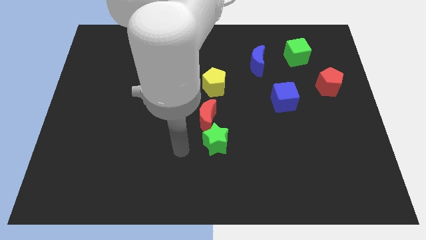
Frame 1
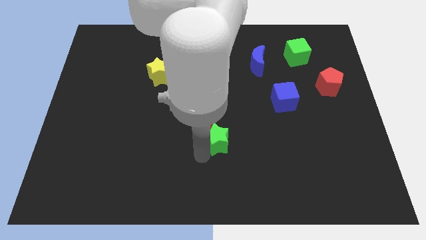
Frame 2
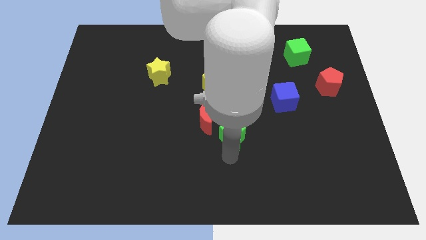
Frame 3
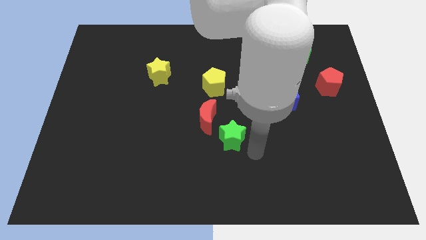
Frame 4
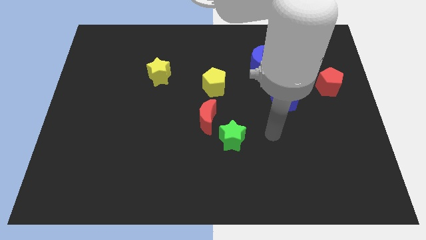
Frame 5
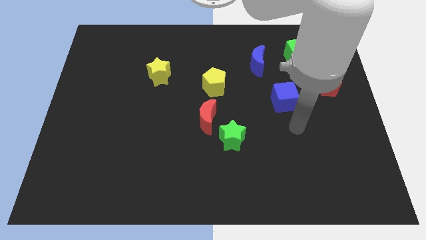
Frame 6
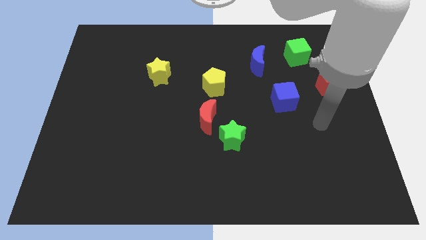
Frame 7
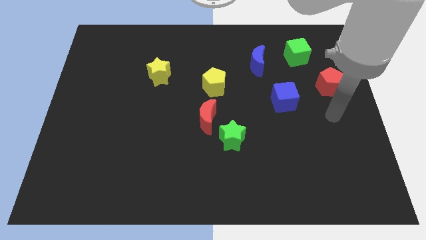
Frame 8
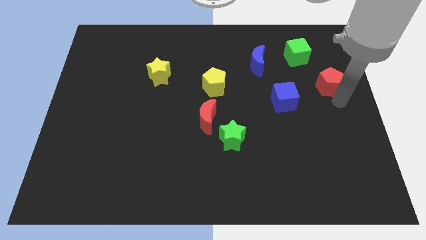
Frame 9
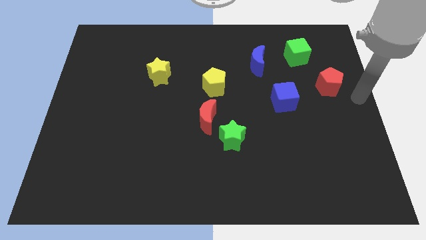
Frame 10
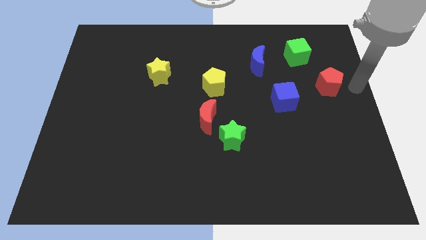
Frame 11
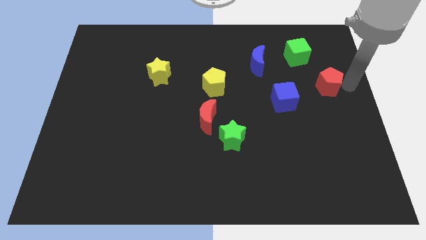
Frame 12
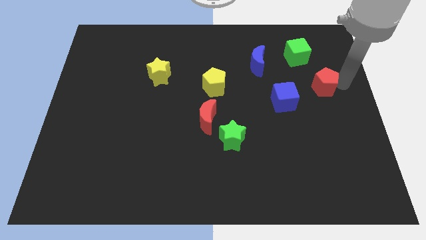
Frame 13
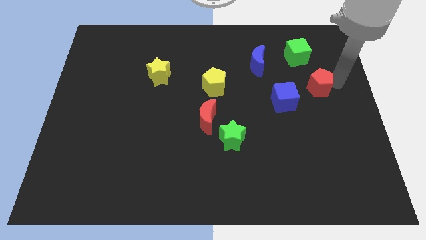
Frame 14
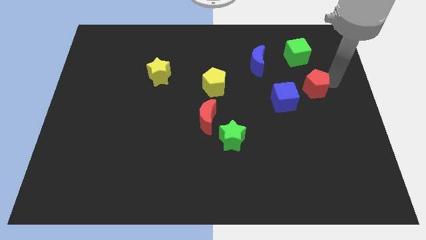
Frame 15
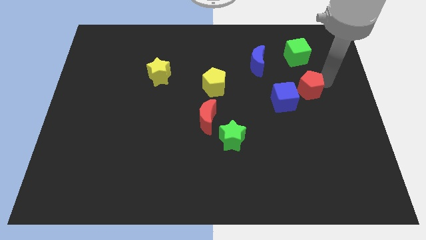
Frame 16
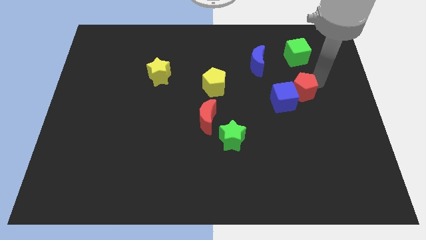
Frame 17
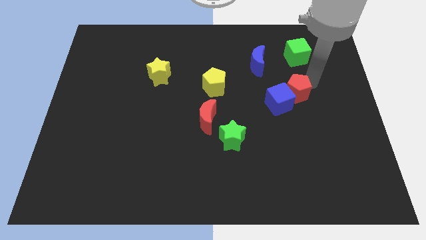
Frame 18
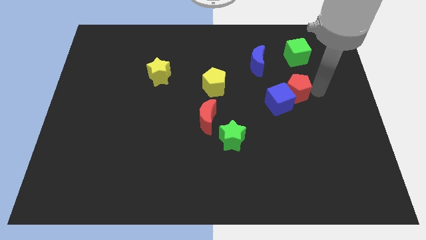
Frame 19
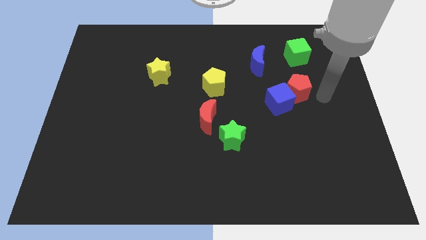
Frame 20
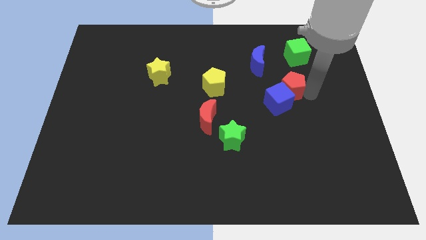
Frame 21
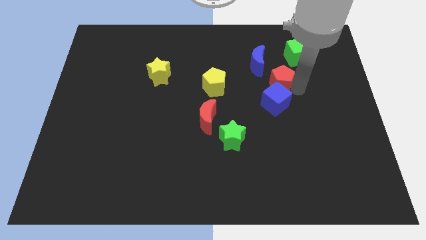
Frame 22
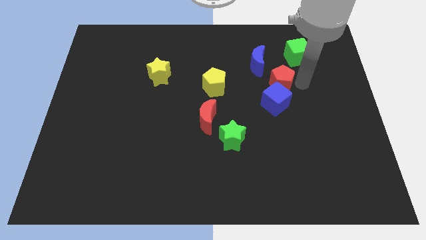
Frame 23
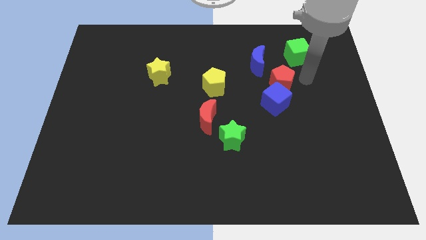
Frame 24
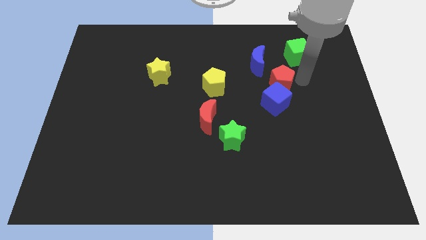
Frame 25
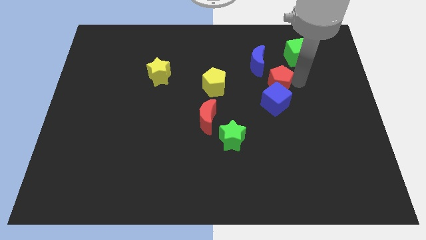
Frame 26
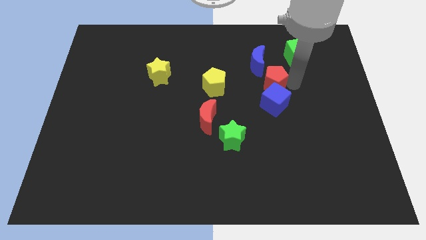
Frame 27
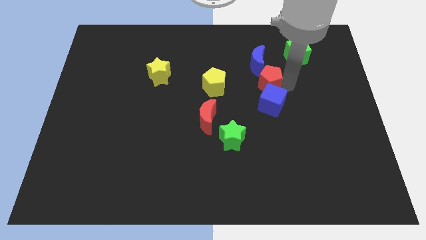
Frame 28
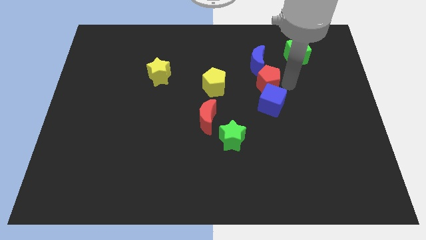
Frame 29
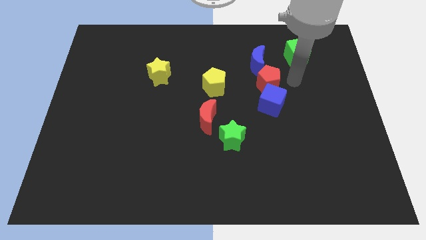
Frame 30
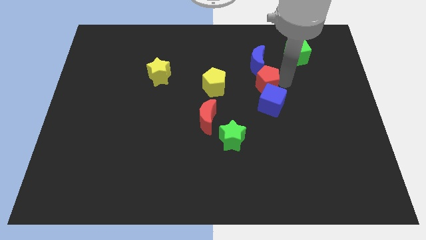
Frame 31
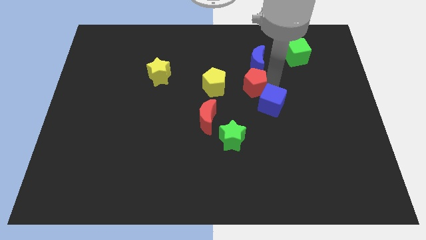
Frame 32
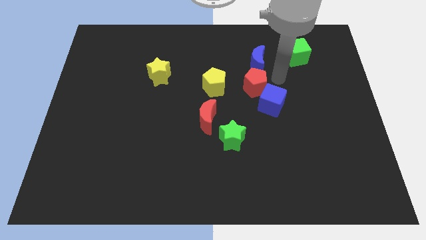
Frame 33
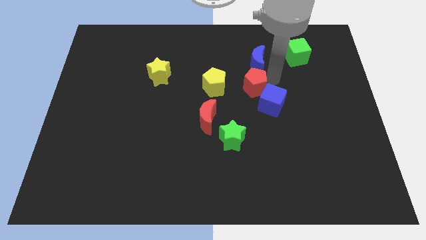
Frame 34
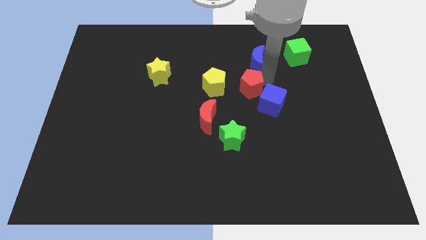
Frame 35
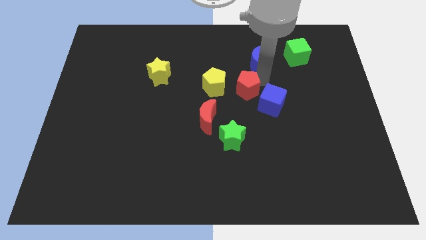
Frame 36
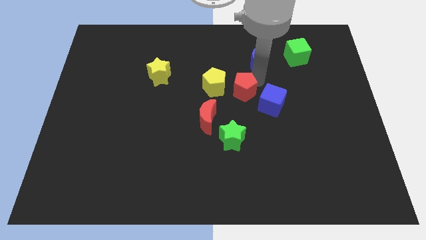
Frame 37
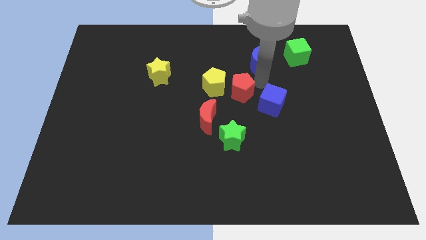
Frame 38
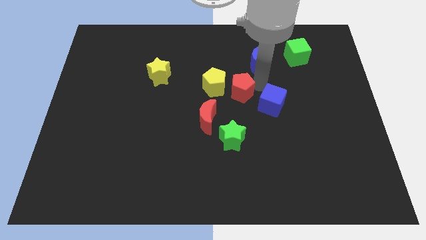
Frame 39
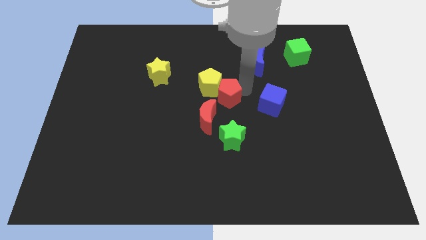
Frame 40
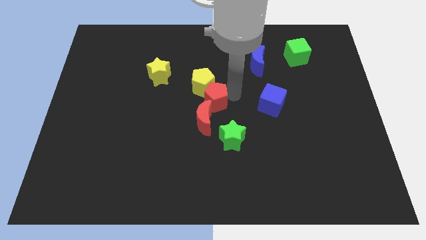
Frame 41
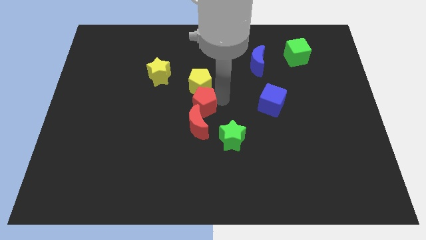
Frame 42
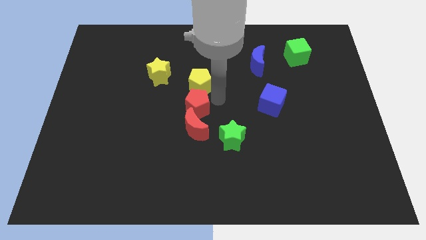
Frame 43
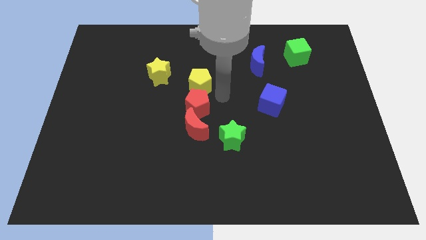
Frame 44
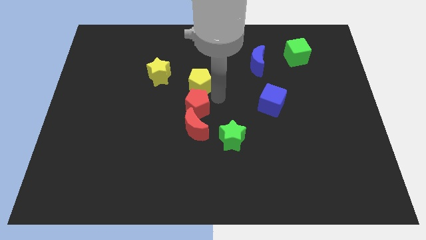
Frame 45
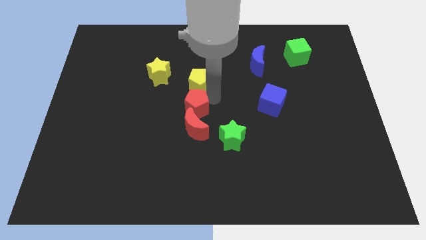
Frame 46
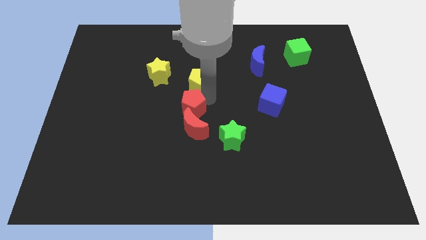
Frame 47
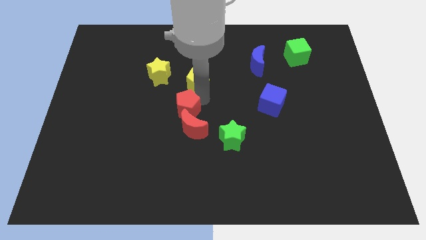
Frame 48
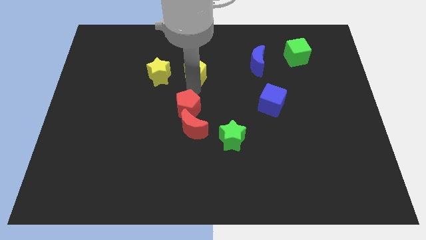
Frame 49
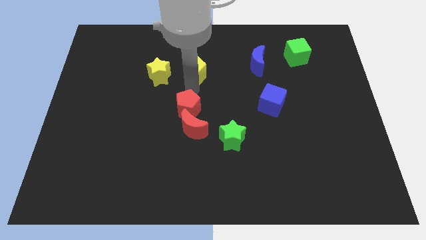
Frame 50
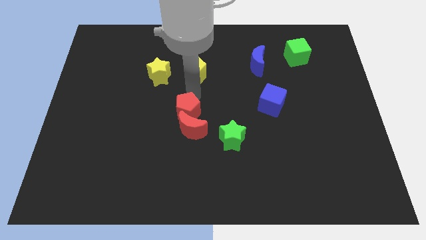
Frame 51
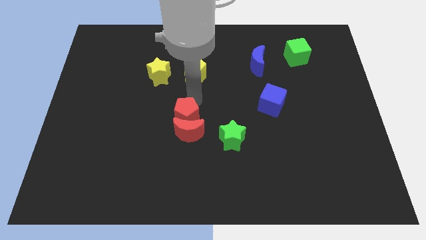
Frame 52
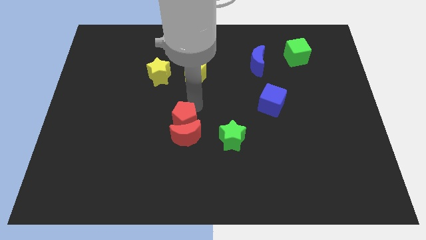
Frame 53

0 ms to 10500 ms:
put the red pentagon just left of the green star

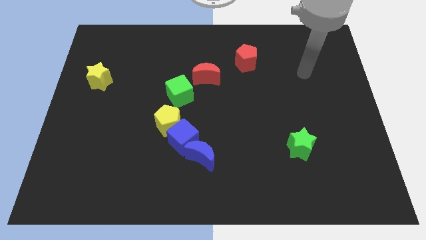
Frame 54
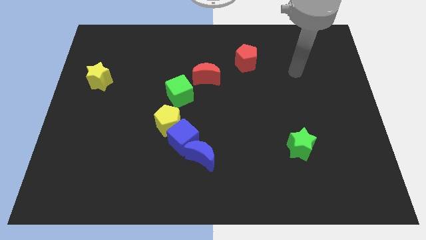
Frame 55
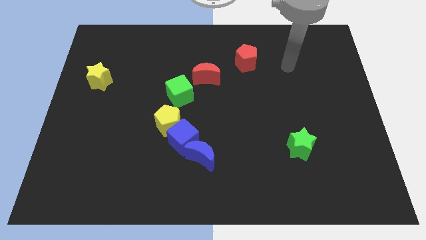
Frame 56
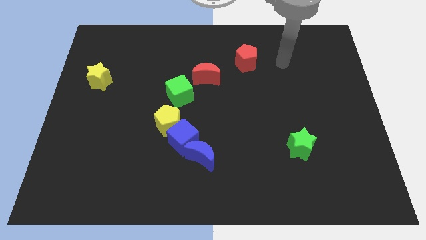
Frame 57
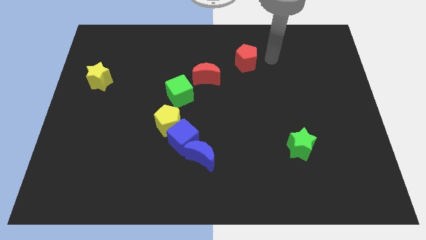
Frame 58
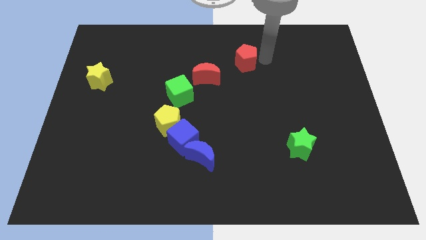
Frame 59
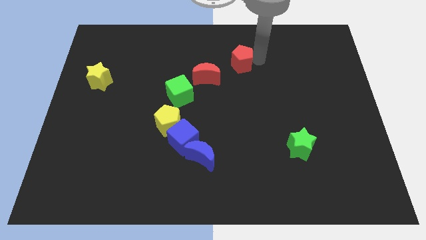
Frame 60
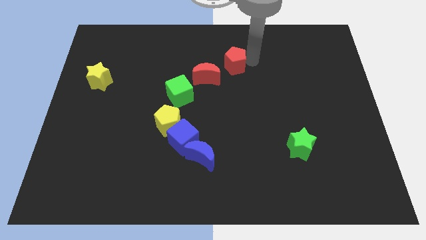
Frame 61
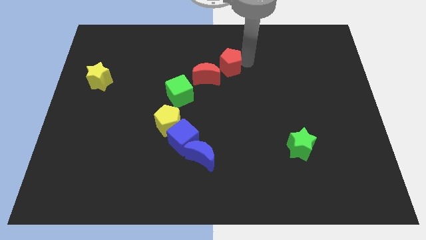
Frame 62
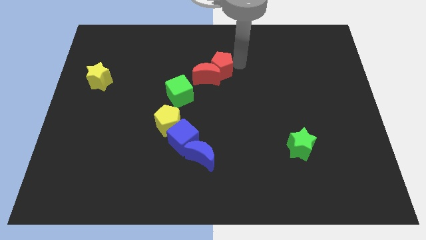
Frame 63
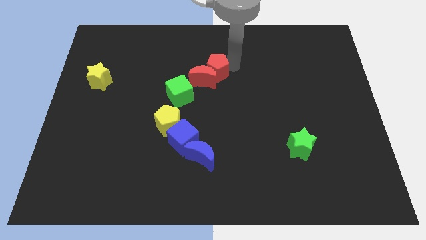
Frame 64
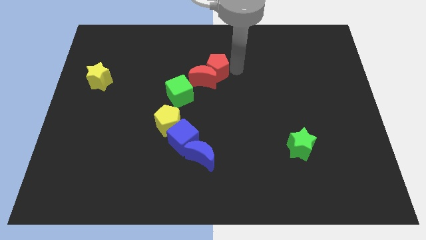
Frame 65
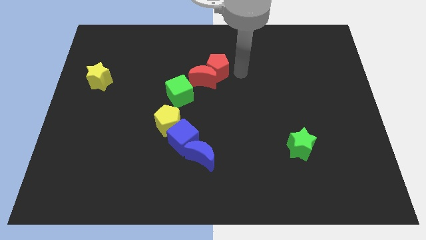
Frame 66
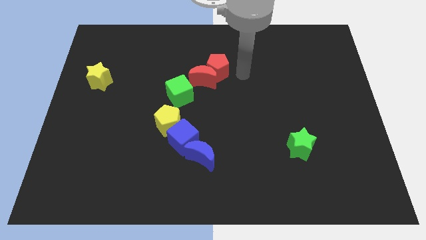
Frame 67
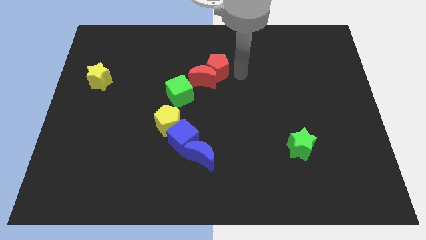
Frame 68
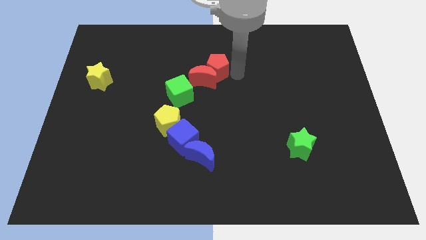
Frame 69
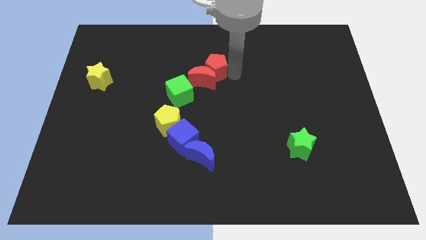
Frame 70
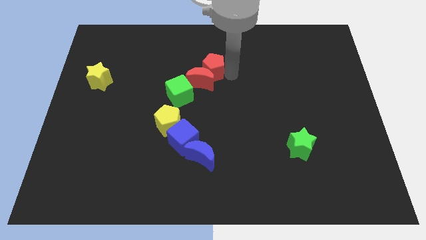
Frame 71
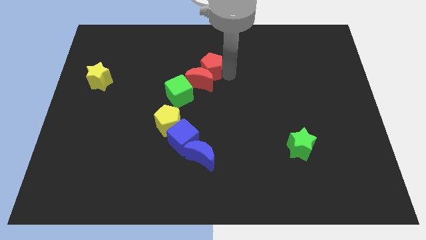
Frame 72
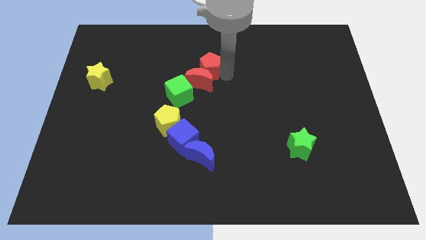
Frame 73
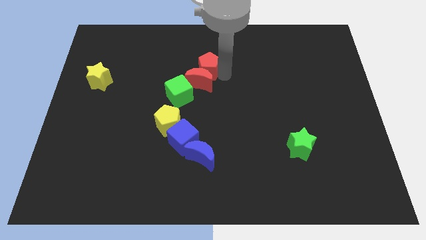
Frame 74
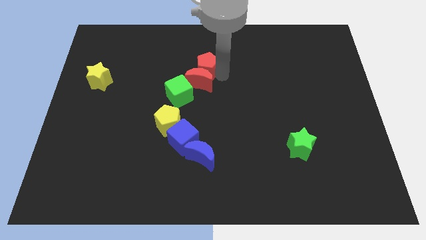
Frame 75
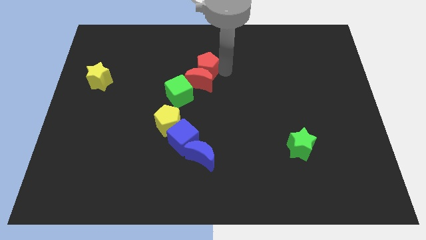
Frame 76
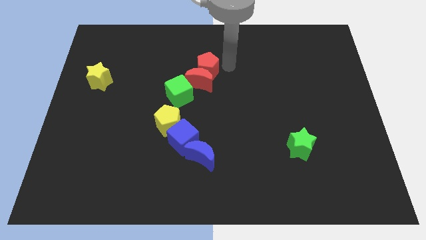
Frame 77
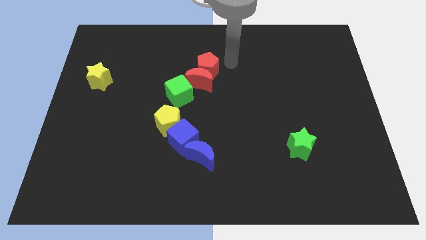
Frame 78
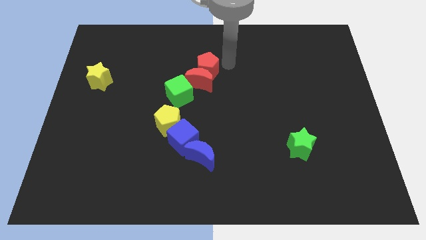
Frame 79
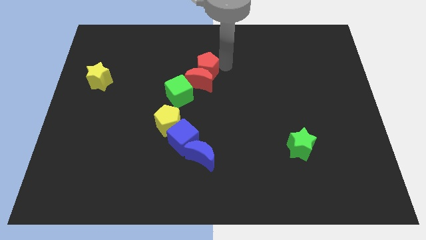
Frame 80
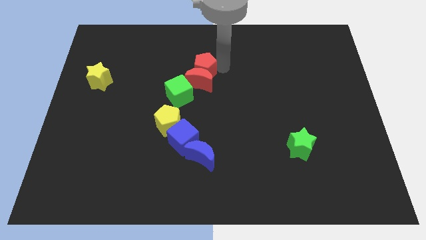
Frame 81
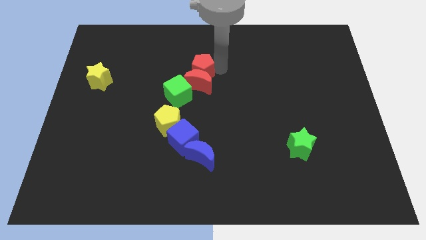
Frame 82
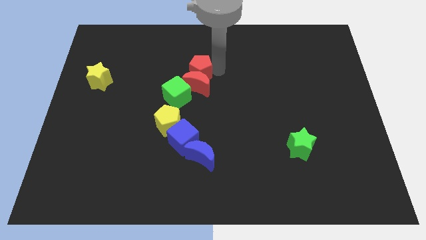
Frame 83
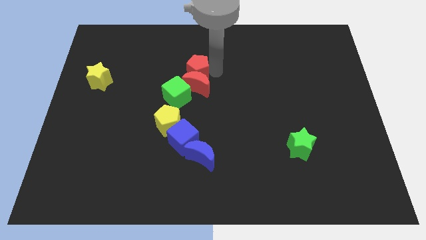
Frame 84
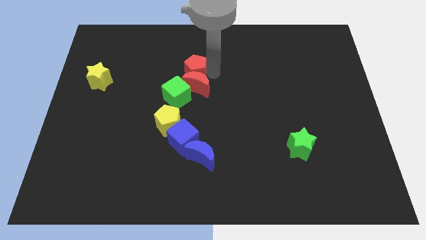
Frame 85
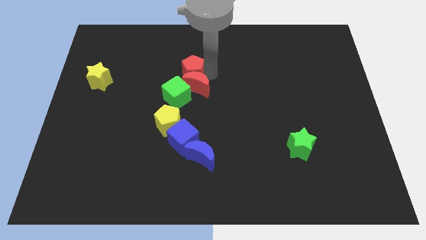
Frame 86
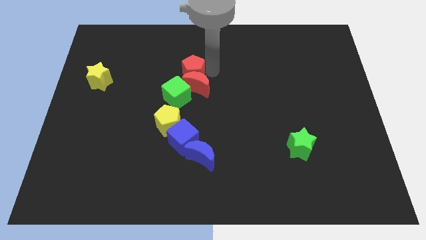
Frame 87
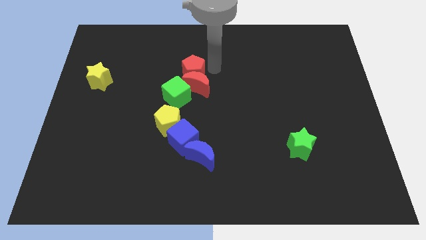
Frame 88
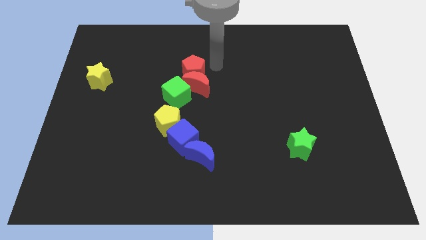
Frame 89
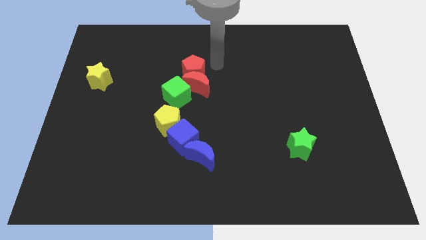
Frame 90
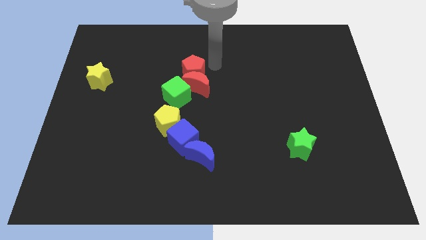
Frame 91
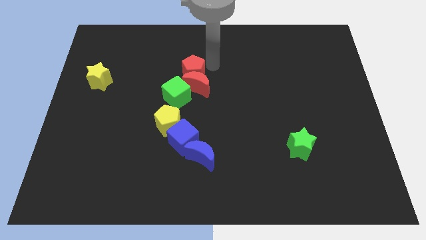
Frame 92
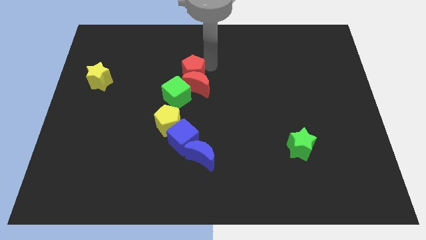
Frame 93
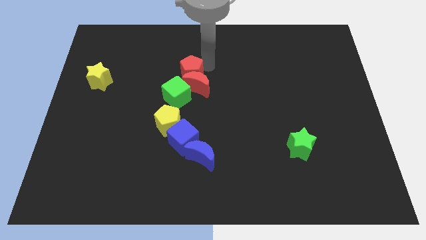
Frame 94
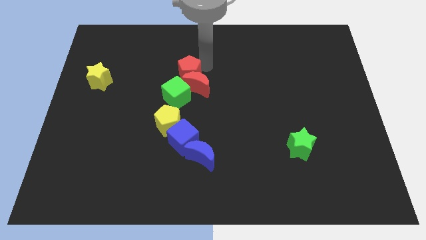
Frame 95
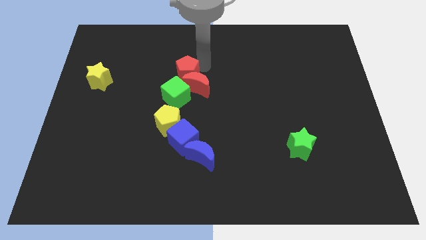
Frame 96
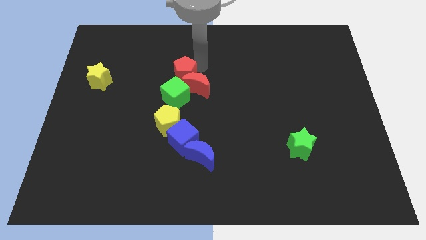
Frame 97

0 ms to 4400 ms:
push the red pentagon above the yellow pentagon
